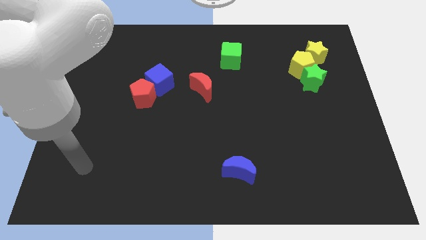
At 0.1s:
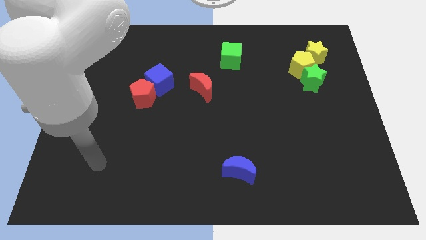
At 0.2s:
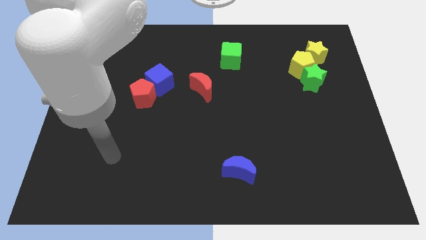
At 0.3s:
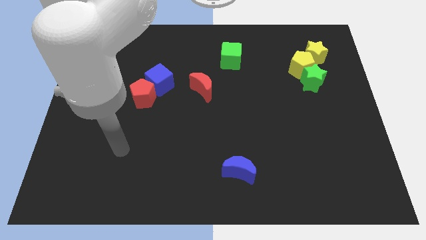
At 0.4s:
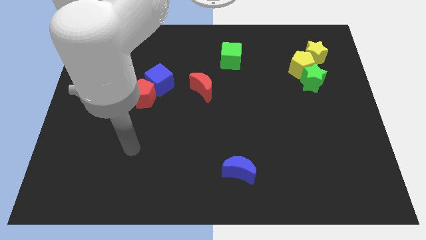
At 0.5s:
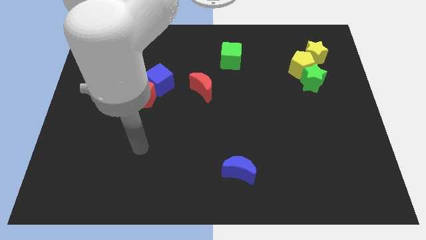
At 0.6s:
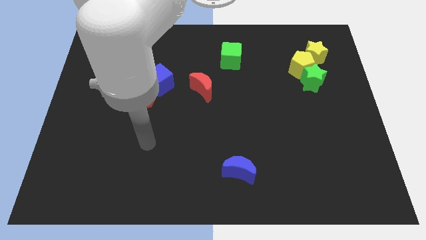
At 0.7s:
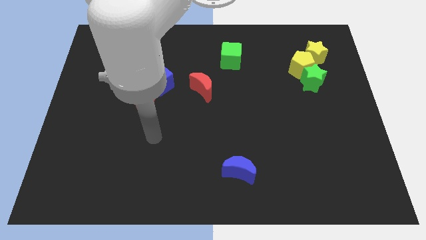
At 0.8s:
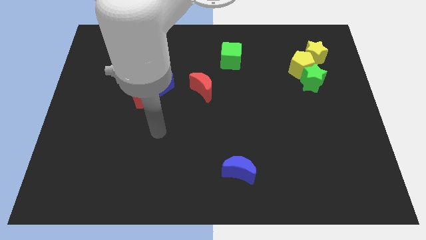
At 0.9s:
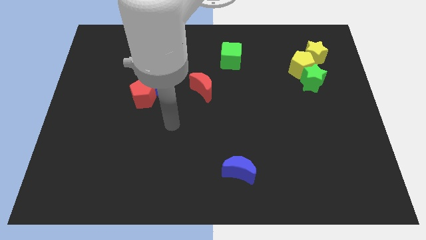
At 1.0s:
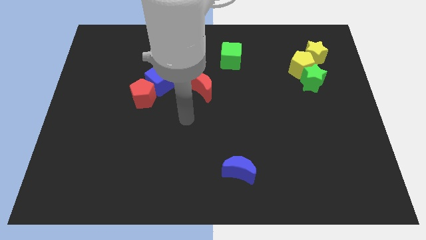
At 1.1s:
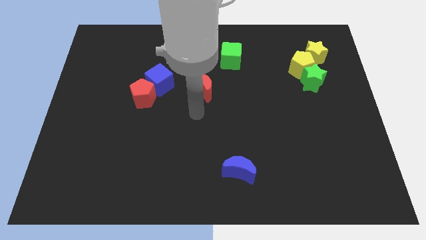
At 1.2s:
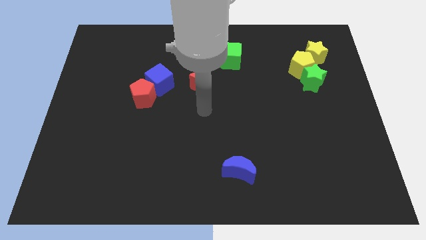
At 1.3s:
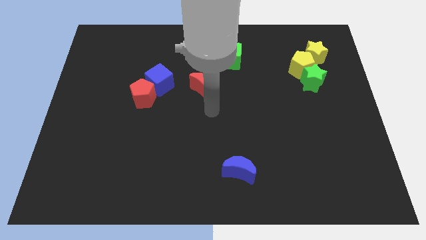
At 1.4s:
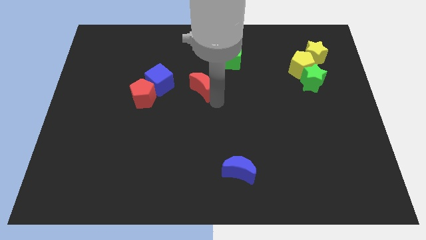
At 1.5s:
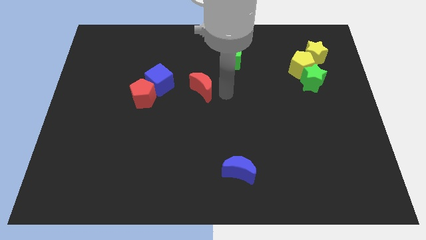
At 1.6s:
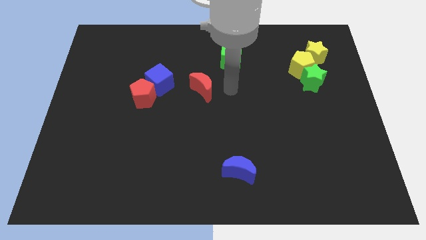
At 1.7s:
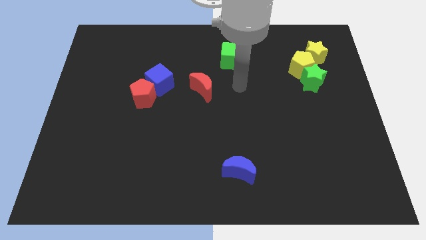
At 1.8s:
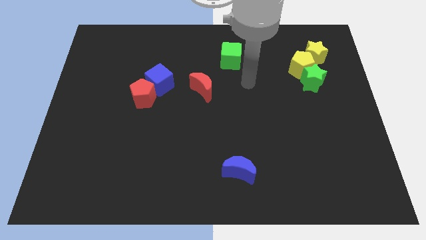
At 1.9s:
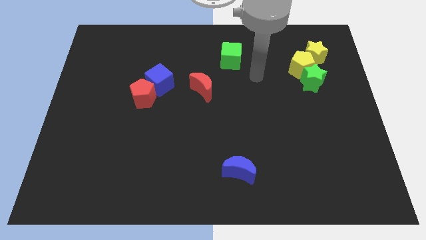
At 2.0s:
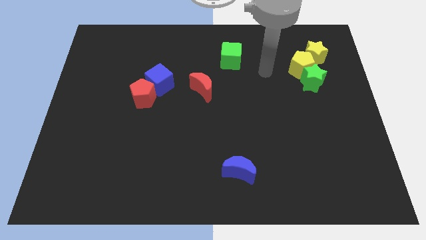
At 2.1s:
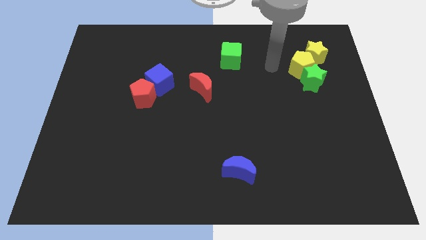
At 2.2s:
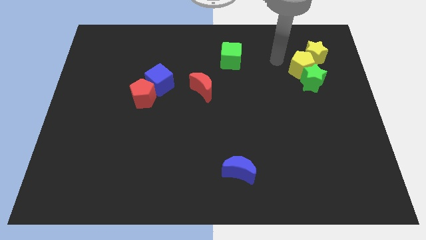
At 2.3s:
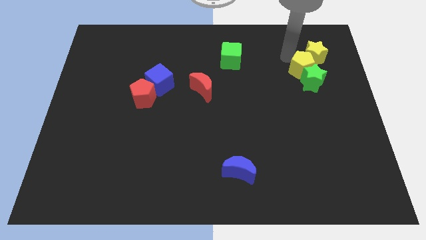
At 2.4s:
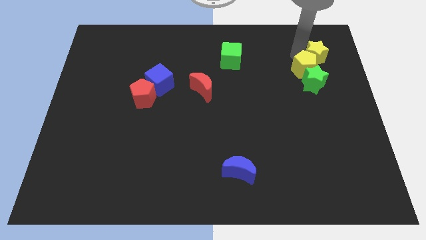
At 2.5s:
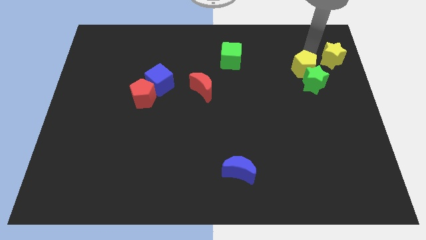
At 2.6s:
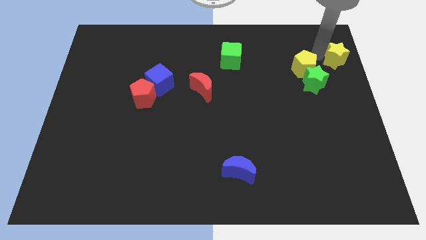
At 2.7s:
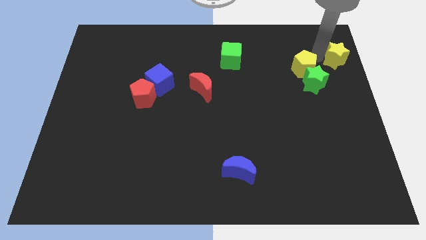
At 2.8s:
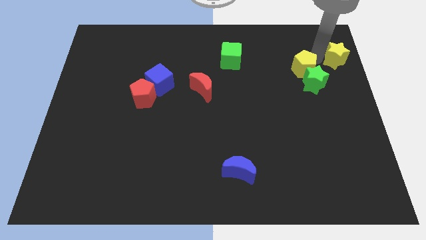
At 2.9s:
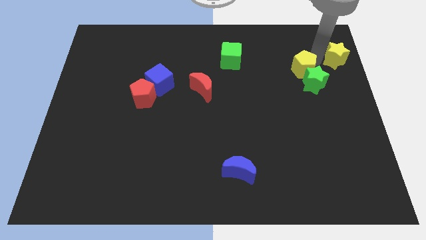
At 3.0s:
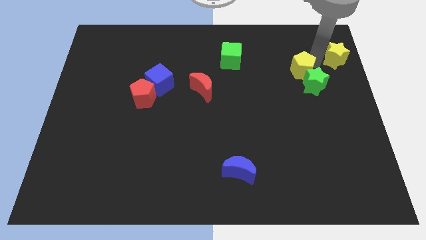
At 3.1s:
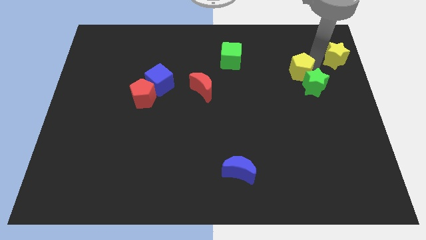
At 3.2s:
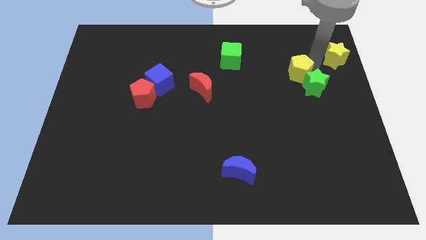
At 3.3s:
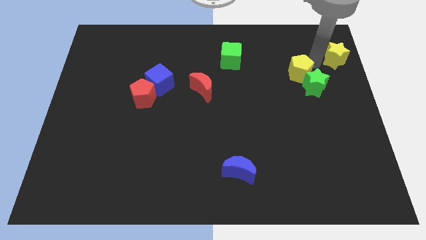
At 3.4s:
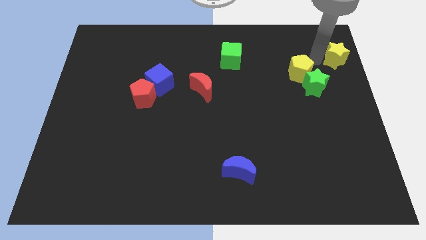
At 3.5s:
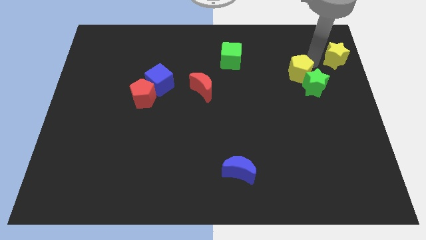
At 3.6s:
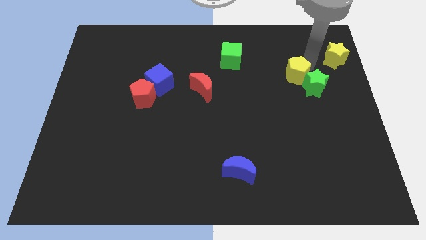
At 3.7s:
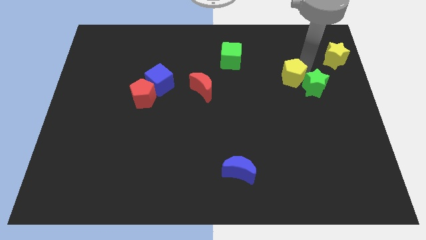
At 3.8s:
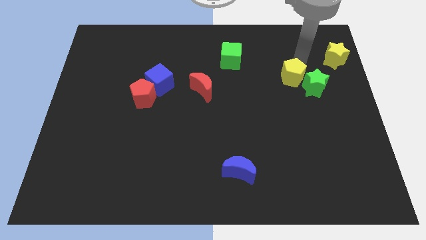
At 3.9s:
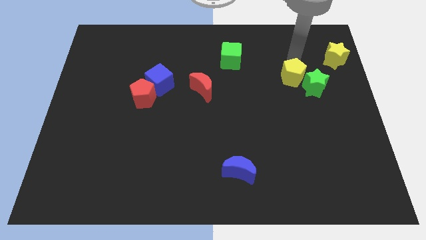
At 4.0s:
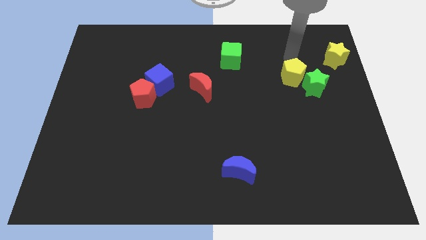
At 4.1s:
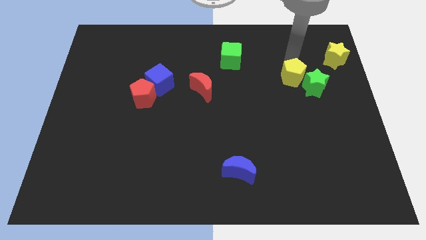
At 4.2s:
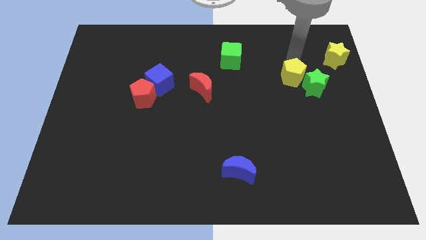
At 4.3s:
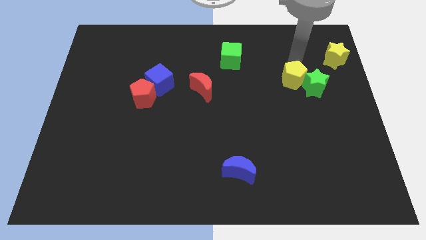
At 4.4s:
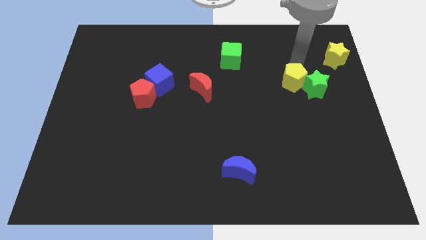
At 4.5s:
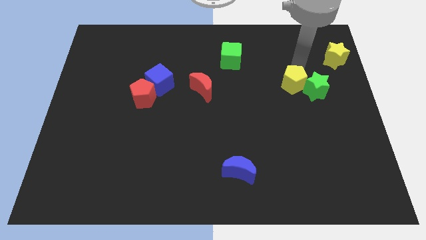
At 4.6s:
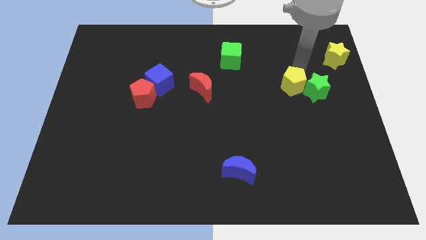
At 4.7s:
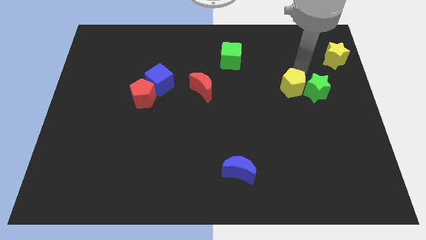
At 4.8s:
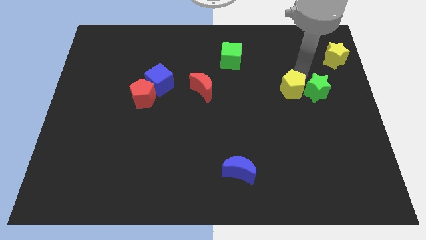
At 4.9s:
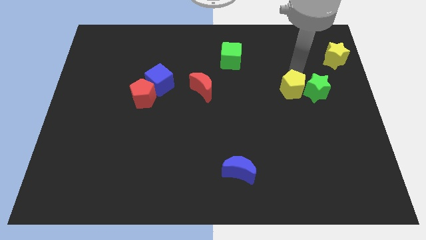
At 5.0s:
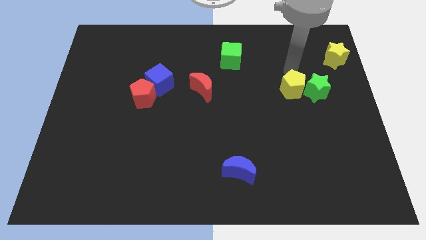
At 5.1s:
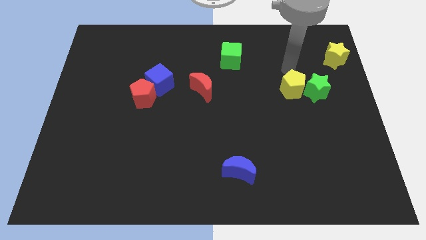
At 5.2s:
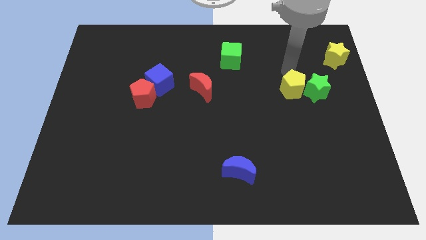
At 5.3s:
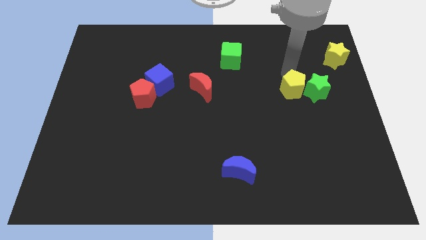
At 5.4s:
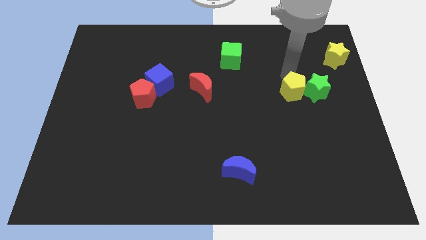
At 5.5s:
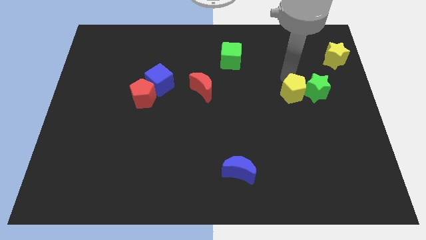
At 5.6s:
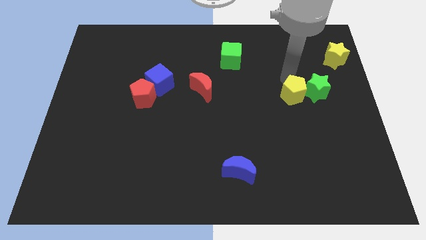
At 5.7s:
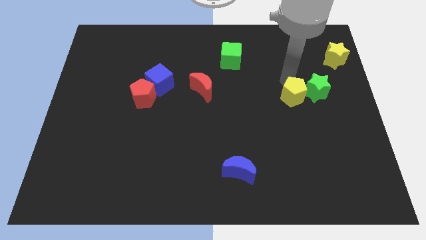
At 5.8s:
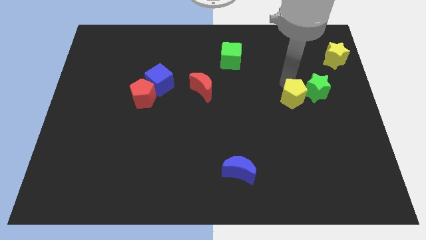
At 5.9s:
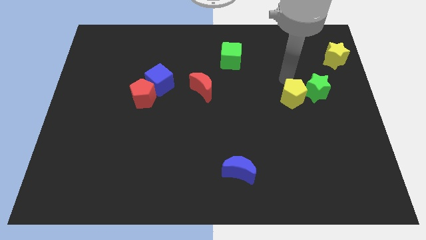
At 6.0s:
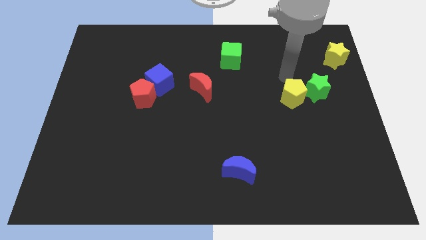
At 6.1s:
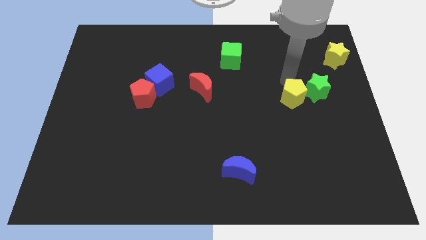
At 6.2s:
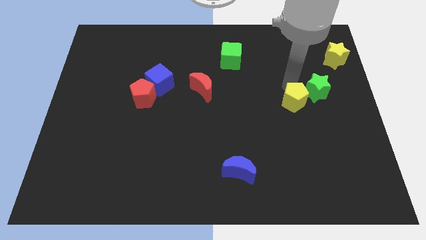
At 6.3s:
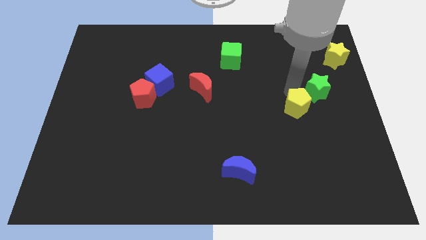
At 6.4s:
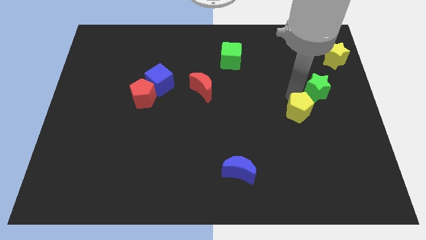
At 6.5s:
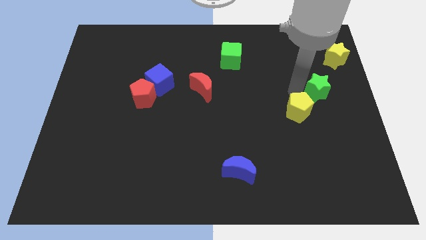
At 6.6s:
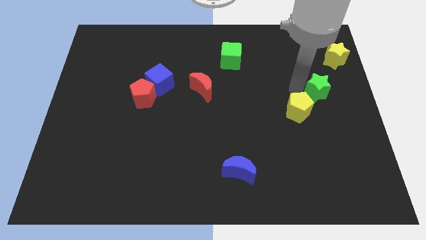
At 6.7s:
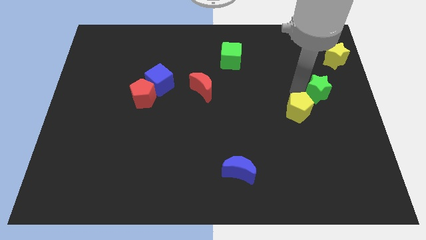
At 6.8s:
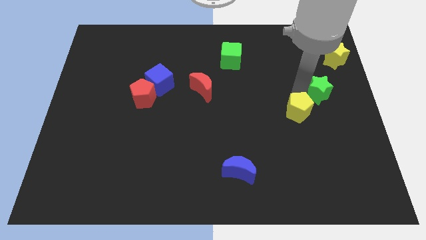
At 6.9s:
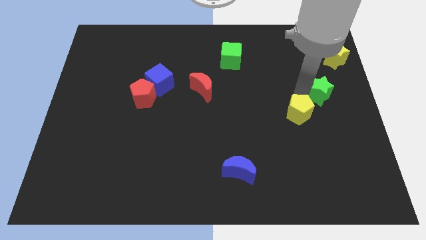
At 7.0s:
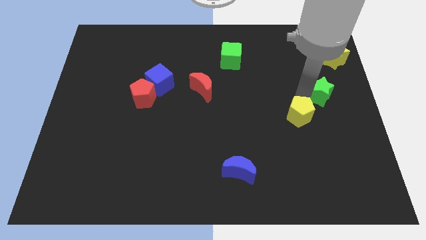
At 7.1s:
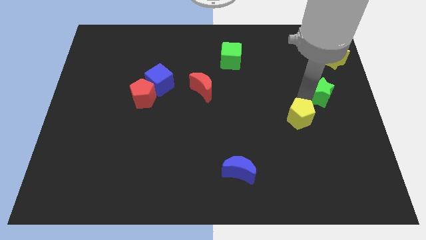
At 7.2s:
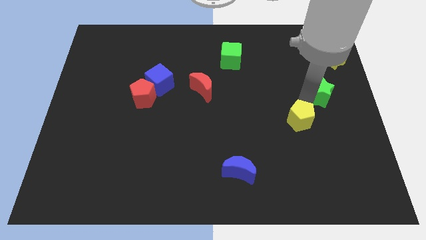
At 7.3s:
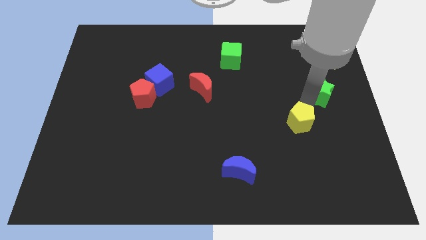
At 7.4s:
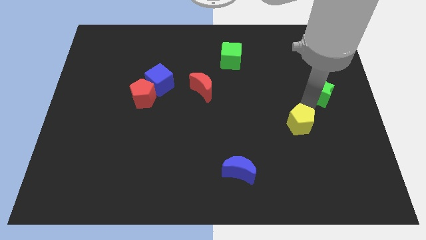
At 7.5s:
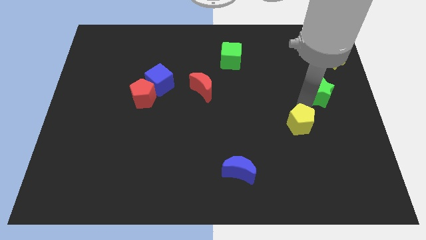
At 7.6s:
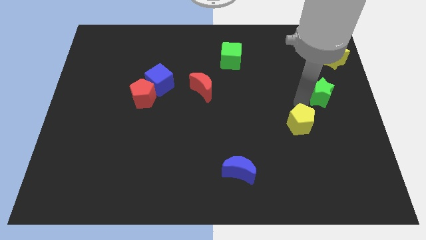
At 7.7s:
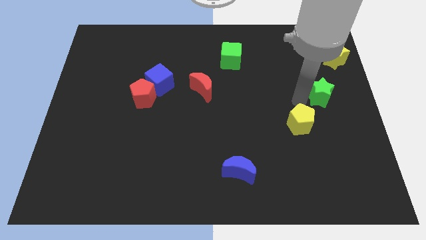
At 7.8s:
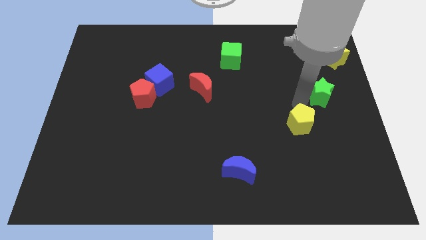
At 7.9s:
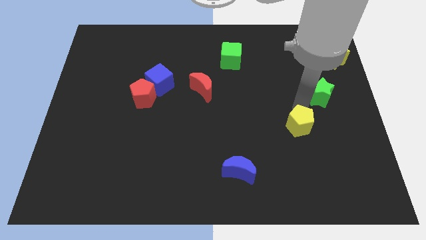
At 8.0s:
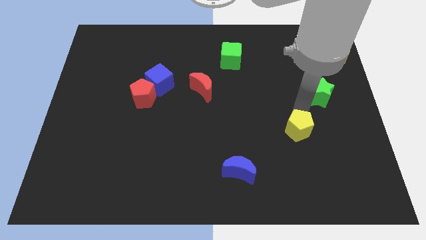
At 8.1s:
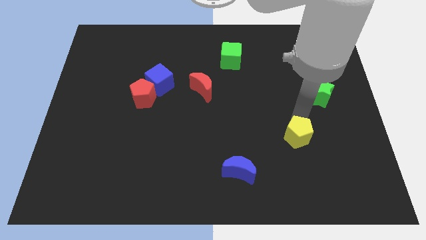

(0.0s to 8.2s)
slide the yellow pentagon downwards
